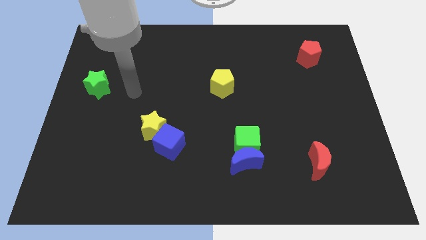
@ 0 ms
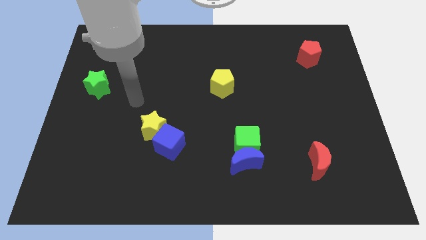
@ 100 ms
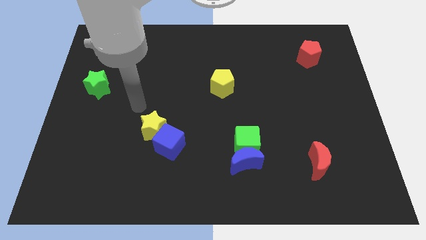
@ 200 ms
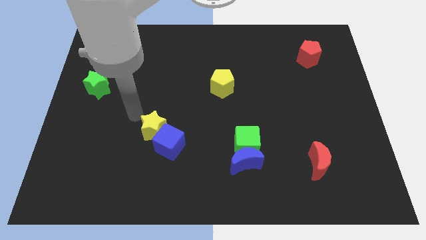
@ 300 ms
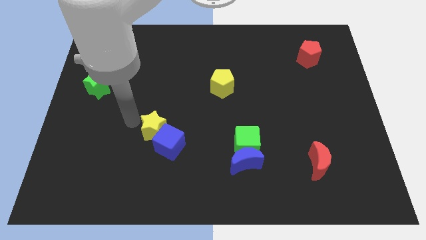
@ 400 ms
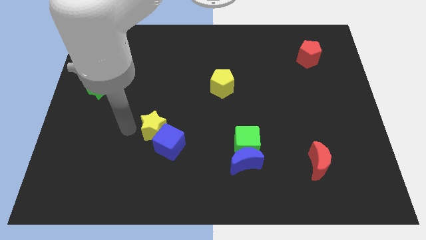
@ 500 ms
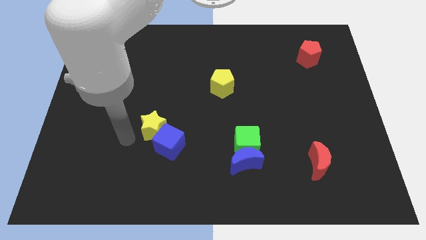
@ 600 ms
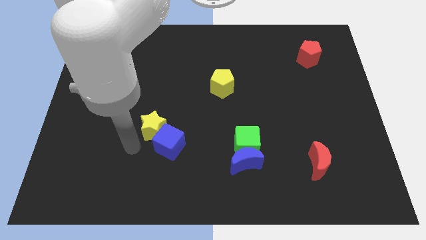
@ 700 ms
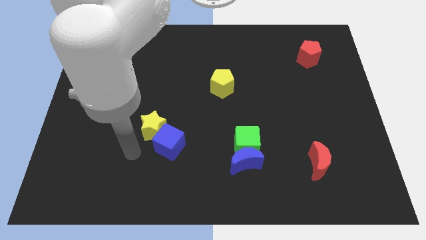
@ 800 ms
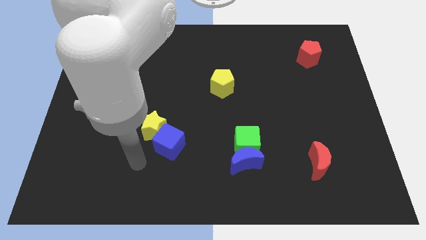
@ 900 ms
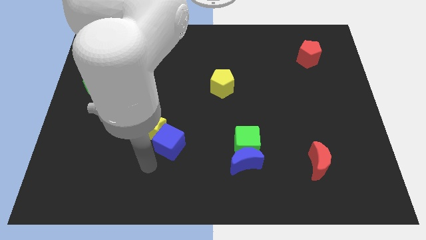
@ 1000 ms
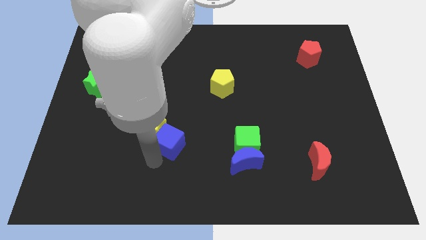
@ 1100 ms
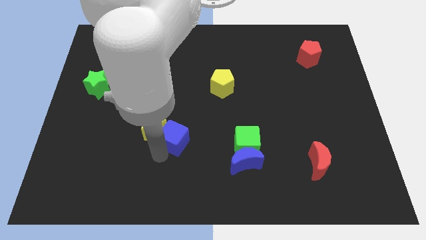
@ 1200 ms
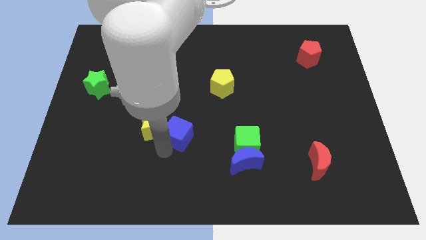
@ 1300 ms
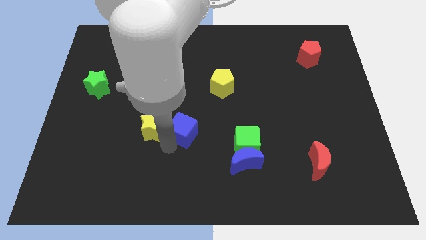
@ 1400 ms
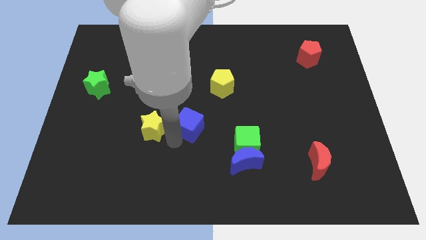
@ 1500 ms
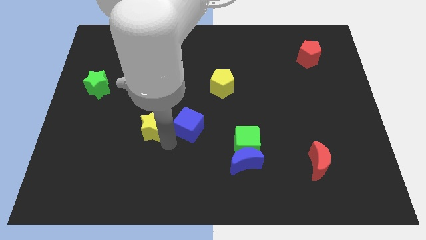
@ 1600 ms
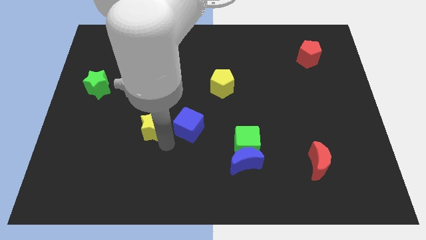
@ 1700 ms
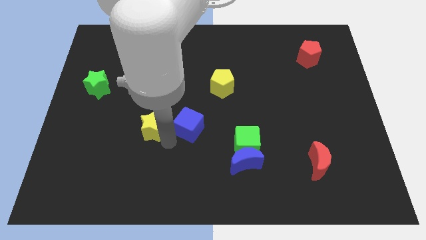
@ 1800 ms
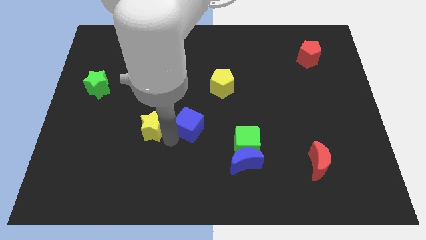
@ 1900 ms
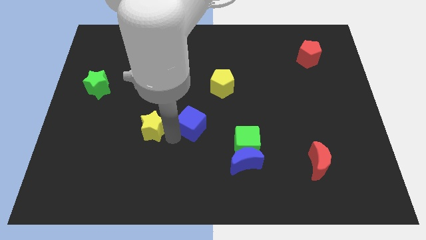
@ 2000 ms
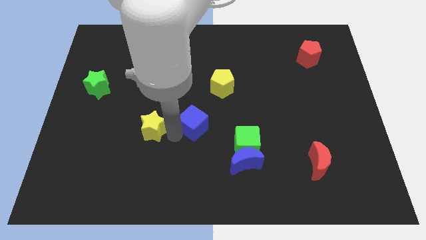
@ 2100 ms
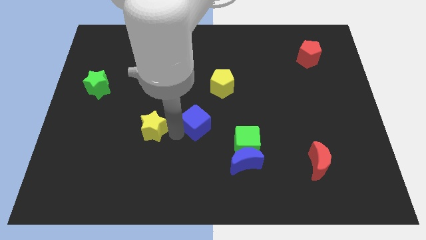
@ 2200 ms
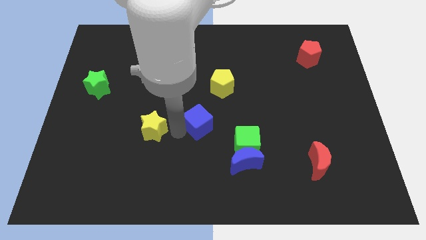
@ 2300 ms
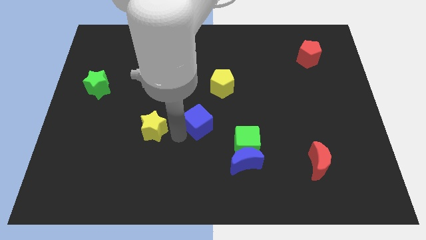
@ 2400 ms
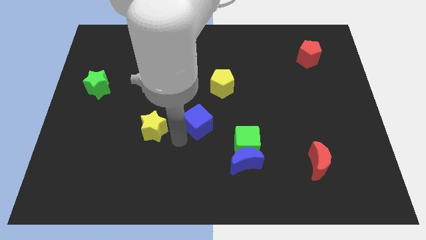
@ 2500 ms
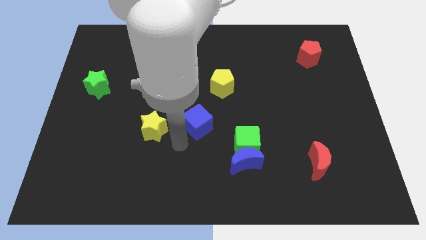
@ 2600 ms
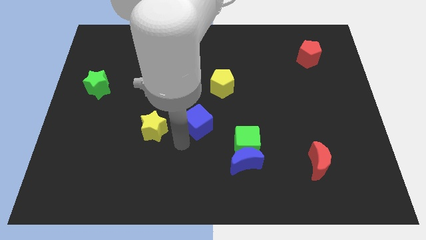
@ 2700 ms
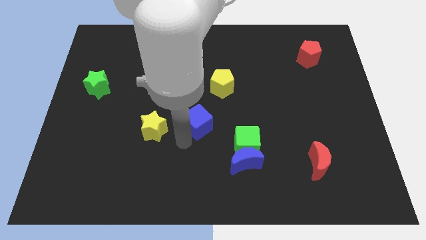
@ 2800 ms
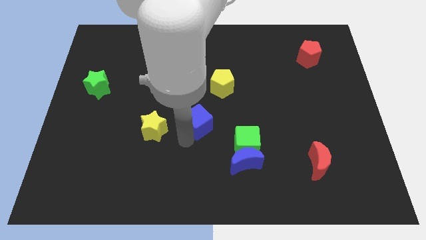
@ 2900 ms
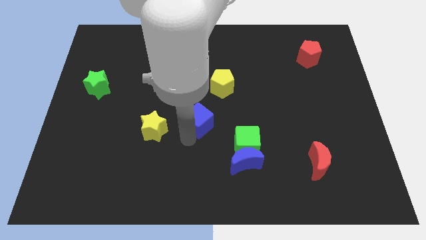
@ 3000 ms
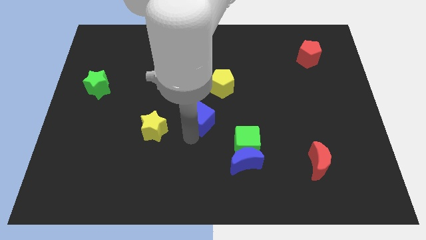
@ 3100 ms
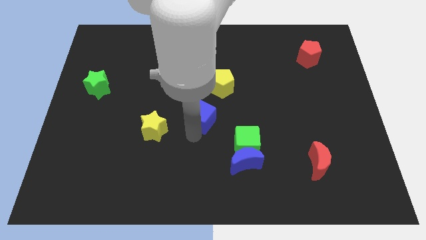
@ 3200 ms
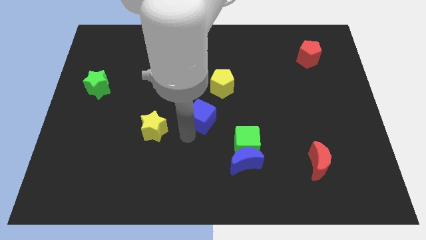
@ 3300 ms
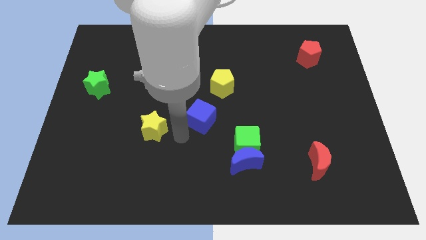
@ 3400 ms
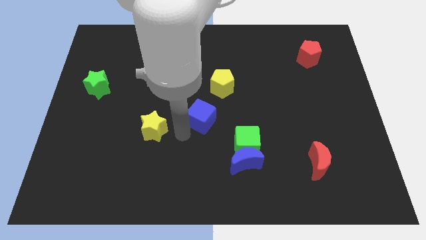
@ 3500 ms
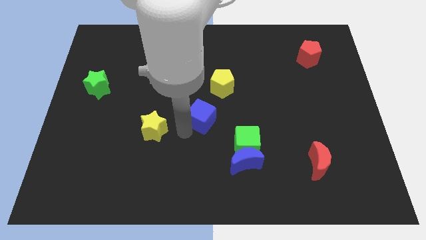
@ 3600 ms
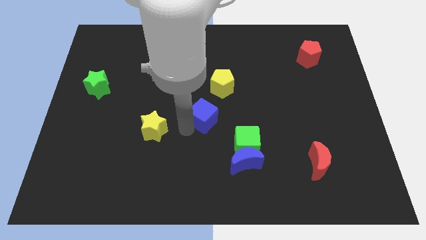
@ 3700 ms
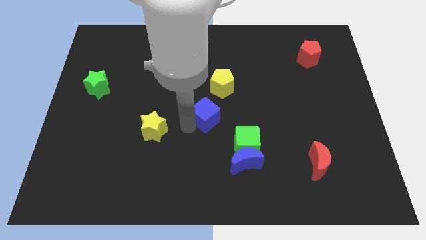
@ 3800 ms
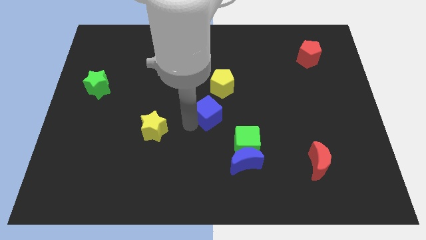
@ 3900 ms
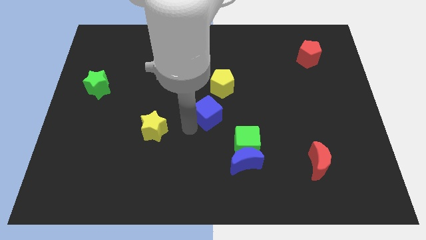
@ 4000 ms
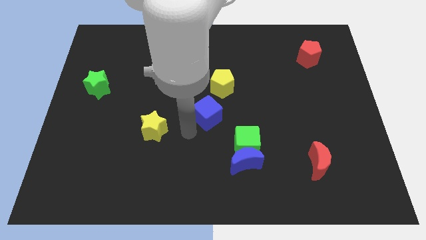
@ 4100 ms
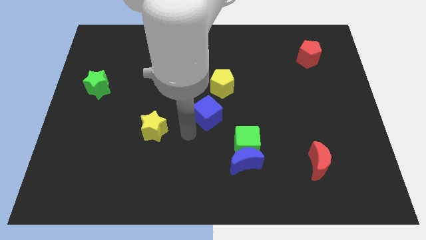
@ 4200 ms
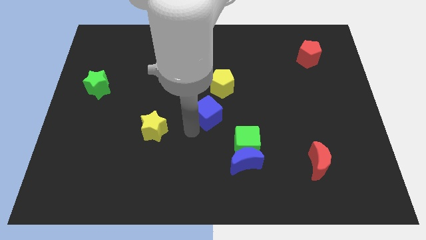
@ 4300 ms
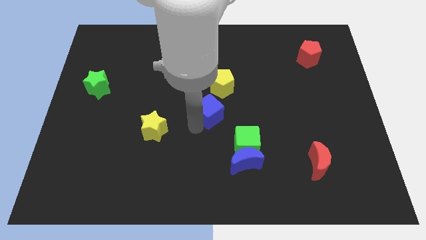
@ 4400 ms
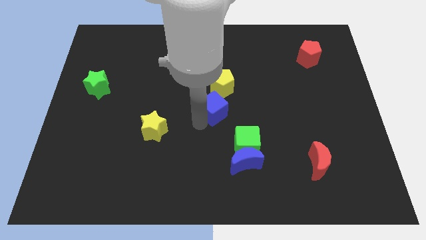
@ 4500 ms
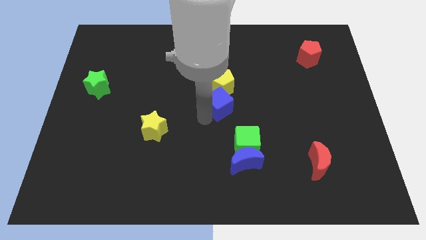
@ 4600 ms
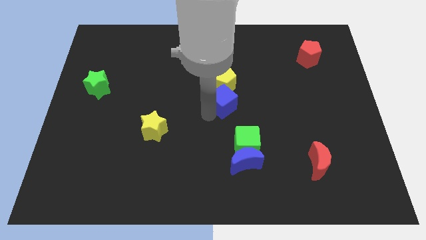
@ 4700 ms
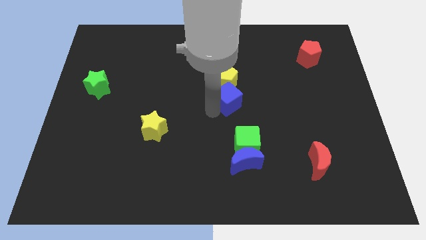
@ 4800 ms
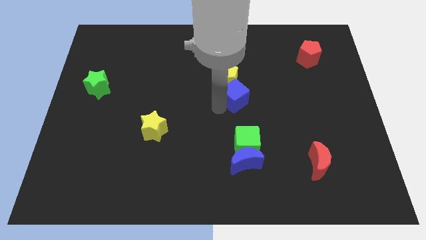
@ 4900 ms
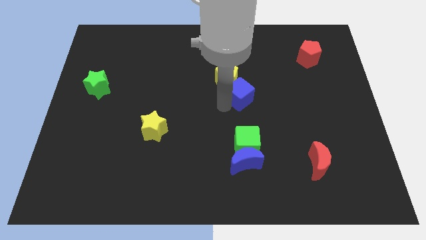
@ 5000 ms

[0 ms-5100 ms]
push the blue cube up and then right

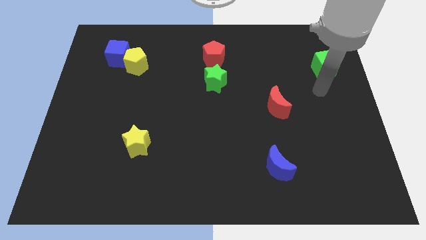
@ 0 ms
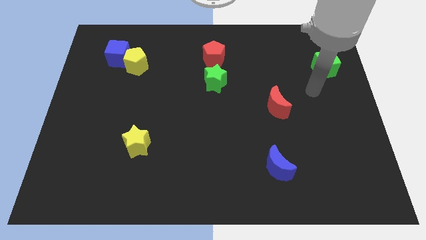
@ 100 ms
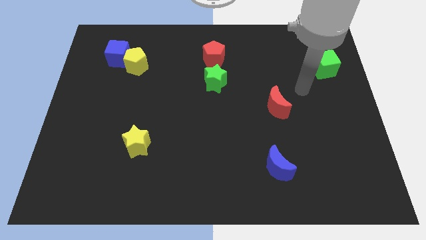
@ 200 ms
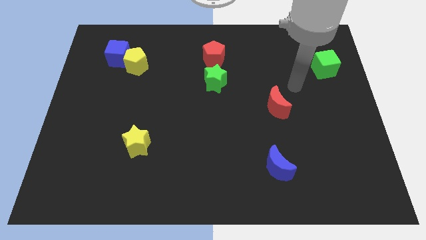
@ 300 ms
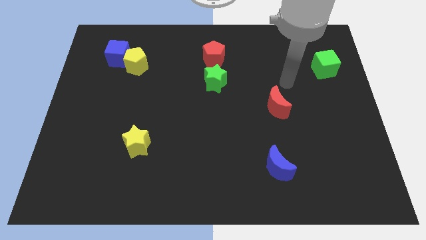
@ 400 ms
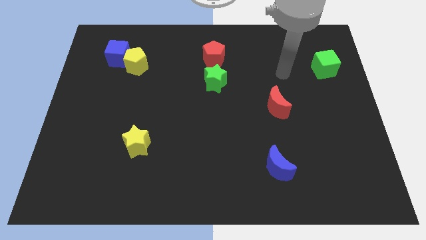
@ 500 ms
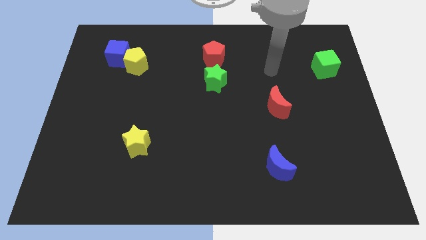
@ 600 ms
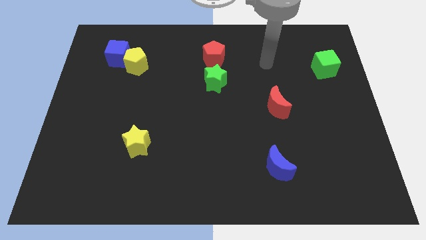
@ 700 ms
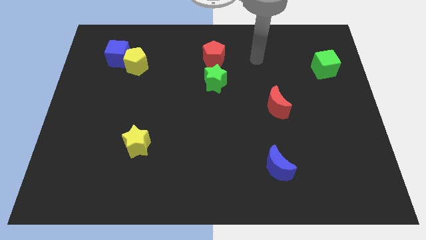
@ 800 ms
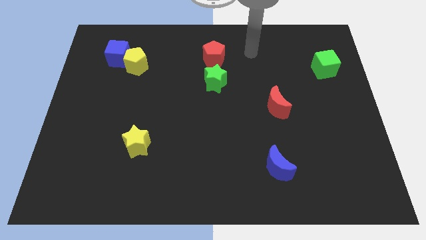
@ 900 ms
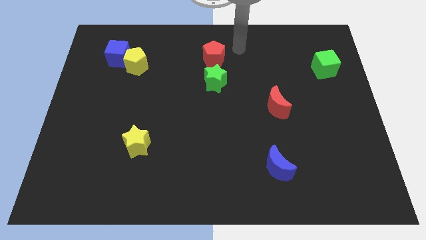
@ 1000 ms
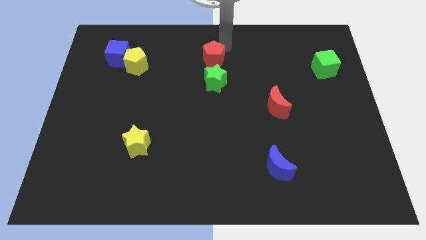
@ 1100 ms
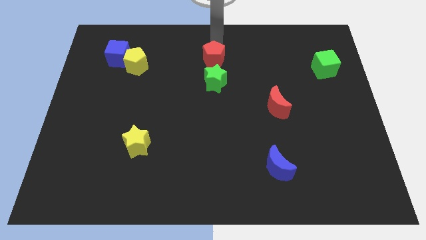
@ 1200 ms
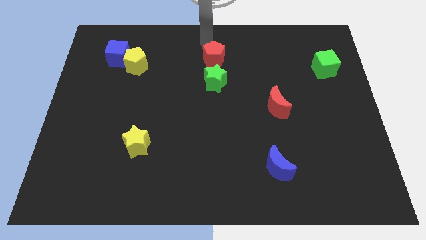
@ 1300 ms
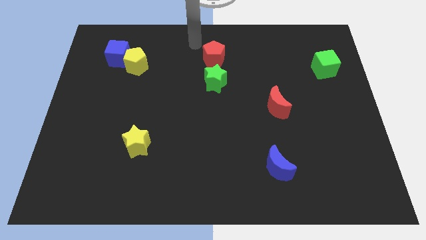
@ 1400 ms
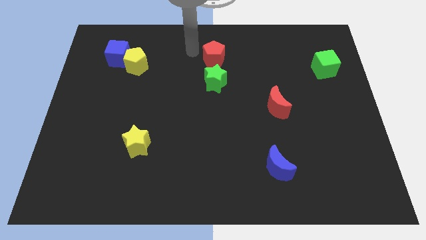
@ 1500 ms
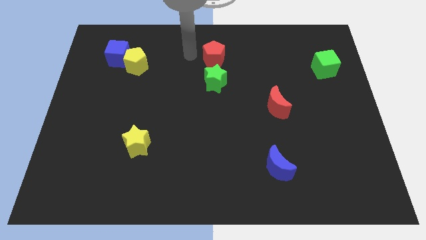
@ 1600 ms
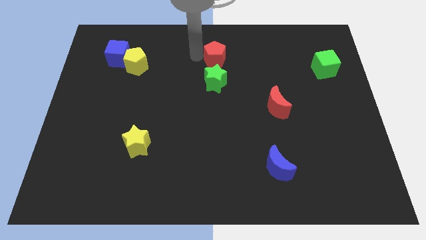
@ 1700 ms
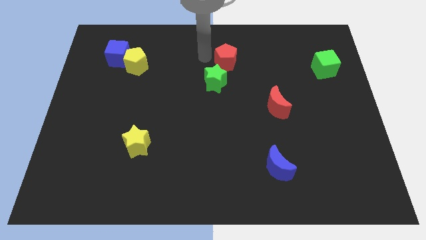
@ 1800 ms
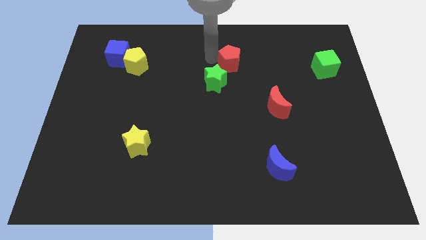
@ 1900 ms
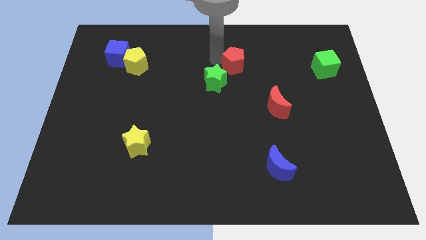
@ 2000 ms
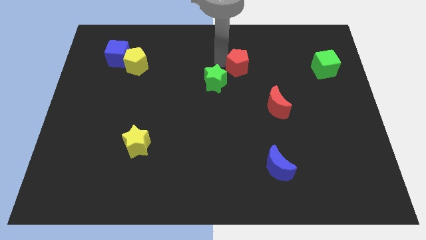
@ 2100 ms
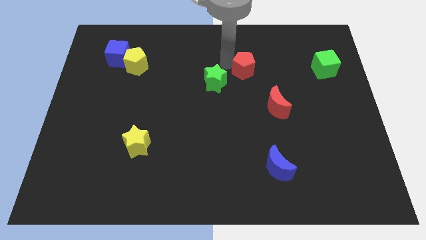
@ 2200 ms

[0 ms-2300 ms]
slide the red pentagon to the right slightly

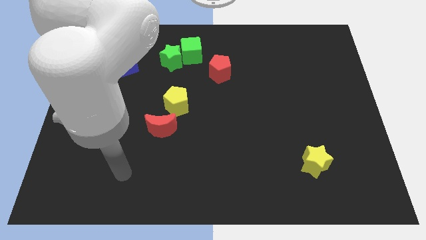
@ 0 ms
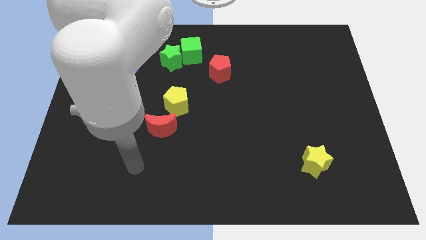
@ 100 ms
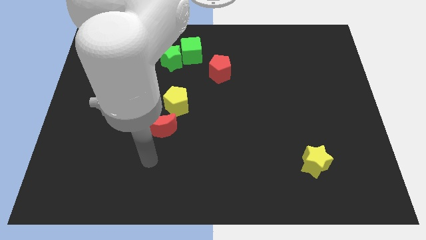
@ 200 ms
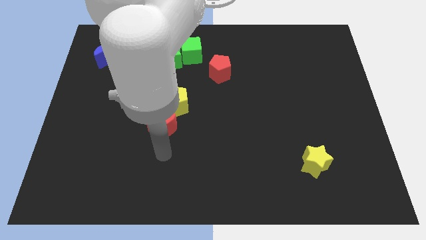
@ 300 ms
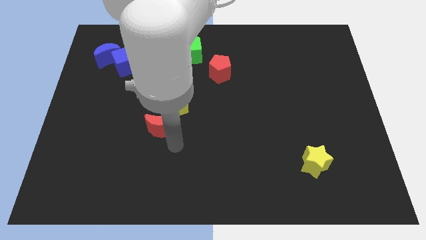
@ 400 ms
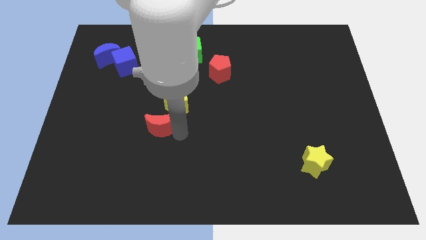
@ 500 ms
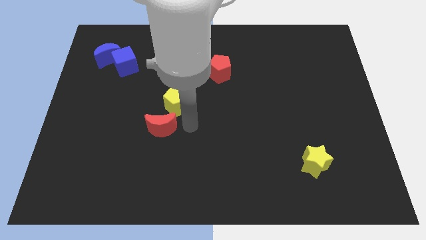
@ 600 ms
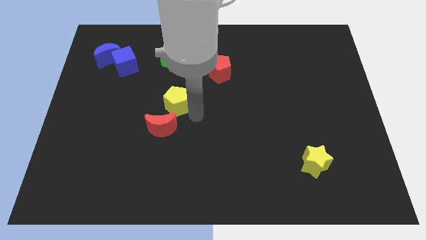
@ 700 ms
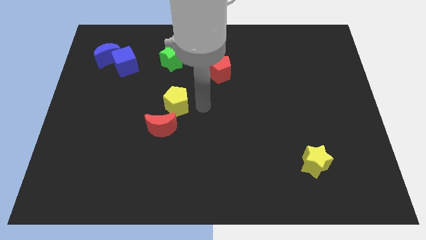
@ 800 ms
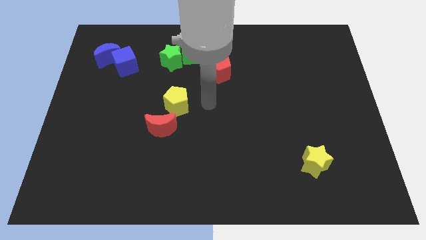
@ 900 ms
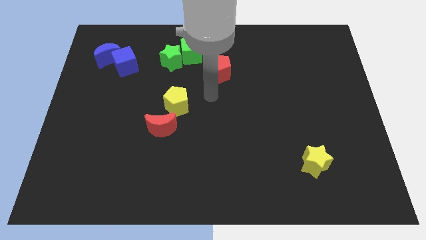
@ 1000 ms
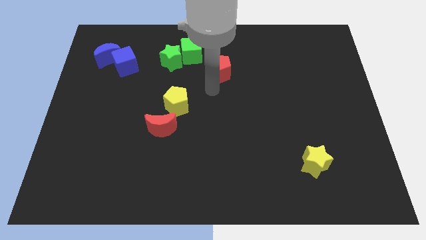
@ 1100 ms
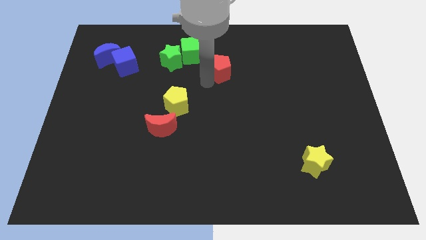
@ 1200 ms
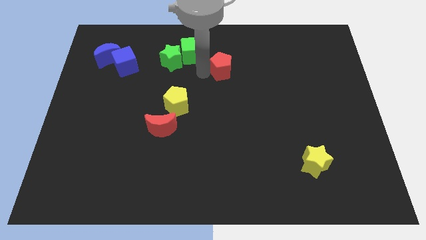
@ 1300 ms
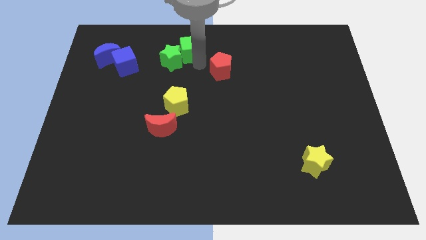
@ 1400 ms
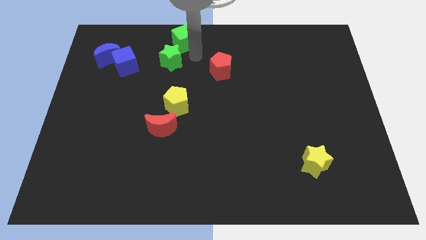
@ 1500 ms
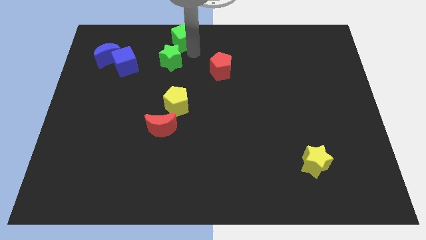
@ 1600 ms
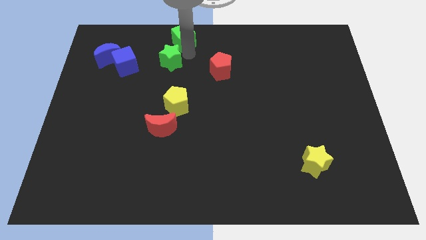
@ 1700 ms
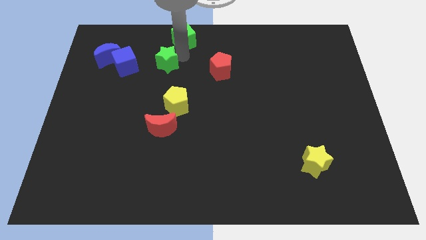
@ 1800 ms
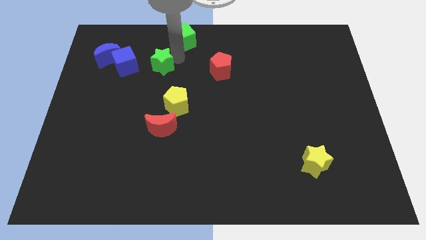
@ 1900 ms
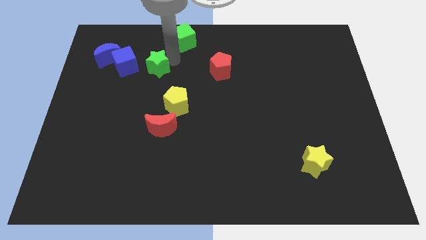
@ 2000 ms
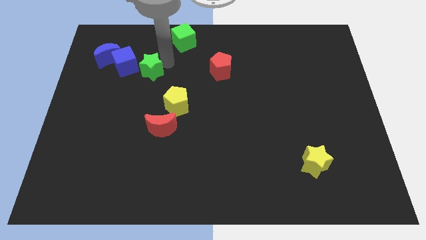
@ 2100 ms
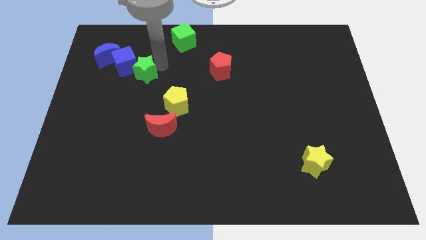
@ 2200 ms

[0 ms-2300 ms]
move the green star somewhat down and to the left diagonally
